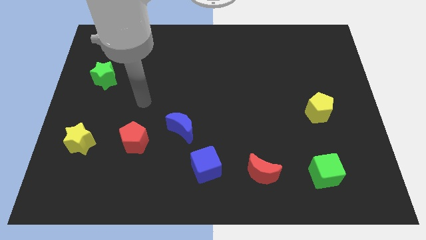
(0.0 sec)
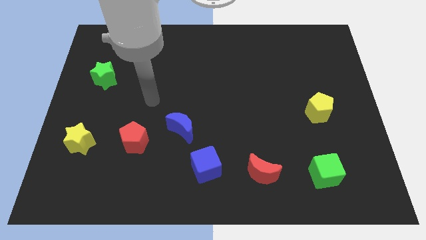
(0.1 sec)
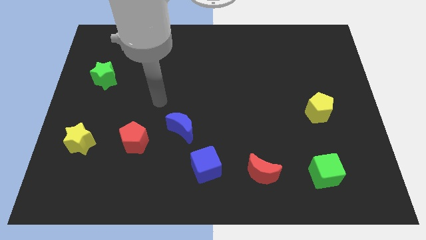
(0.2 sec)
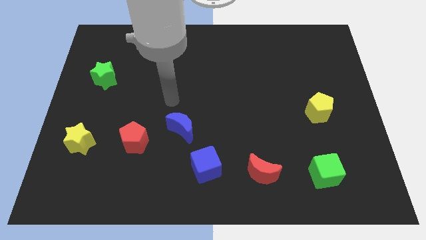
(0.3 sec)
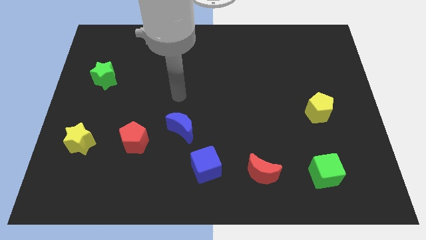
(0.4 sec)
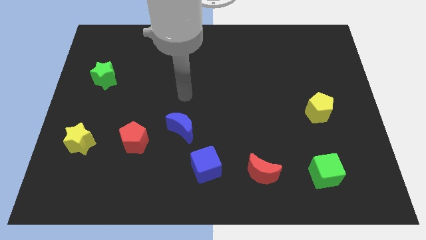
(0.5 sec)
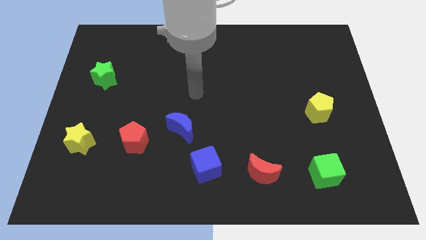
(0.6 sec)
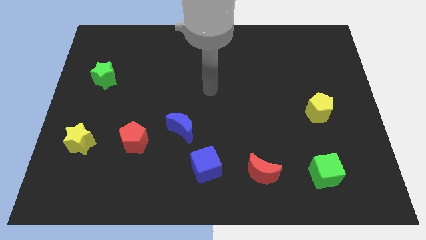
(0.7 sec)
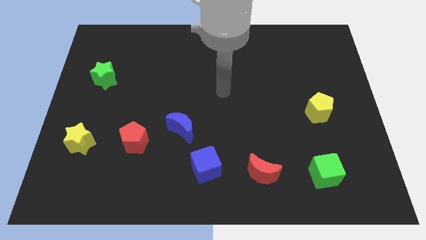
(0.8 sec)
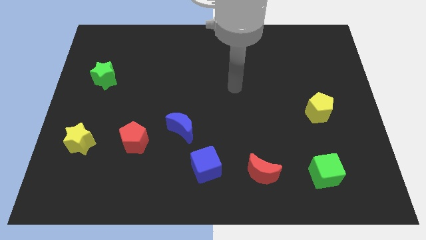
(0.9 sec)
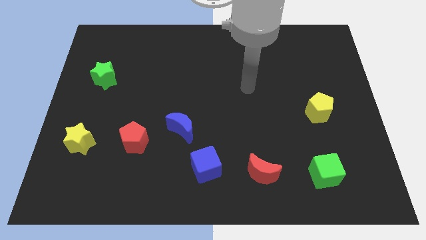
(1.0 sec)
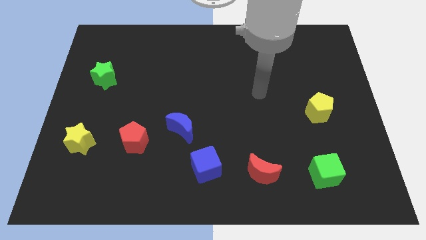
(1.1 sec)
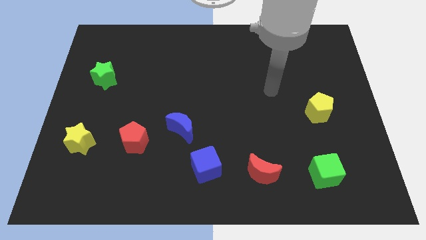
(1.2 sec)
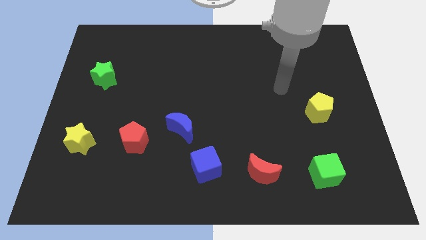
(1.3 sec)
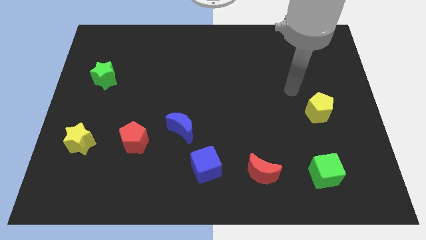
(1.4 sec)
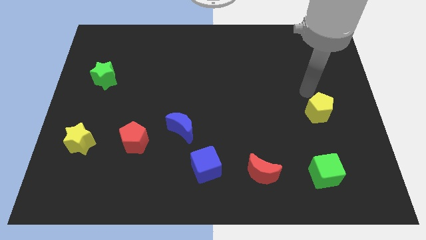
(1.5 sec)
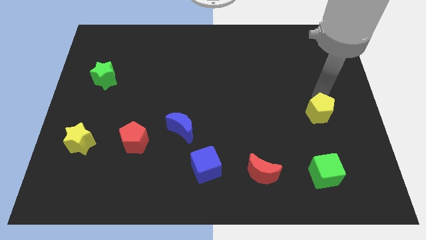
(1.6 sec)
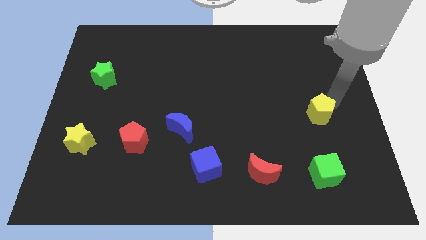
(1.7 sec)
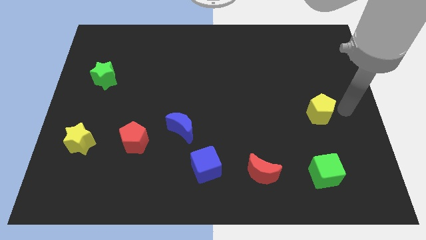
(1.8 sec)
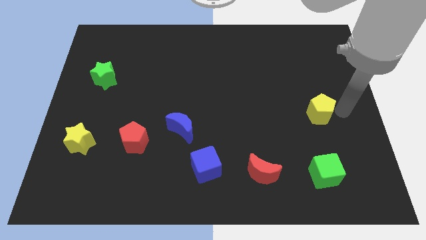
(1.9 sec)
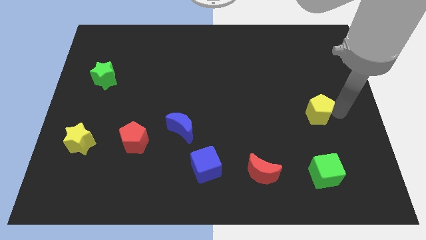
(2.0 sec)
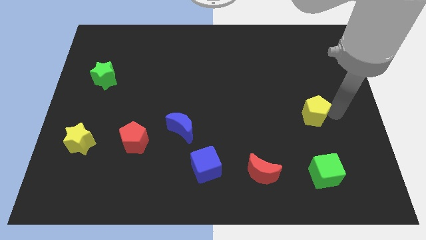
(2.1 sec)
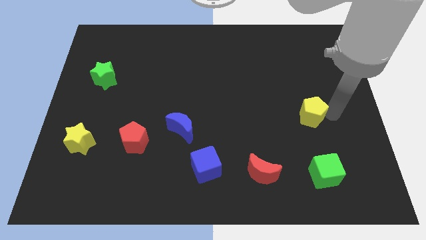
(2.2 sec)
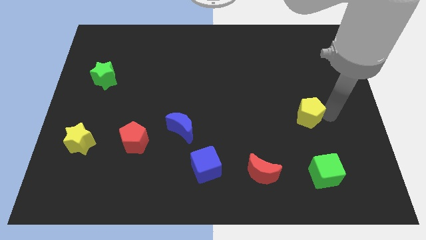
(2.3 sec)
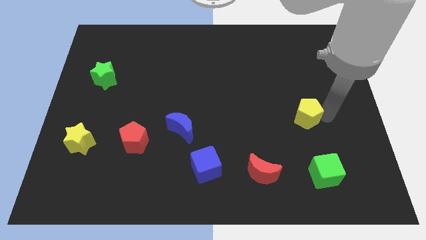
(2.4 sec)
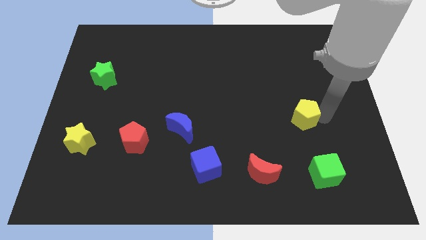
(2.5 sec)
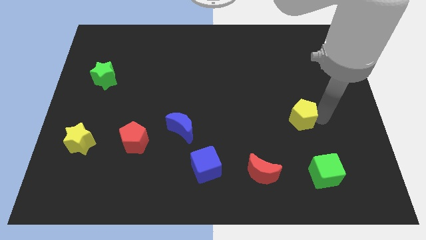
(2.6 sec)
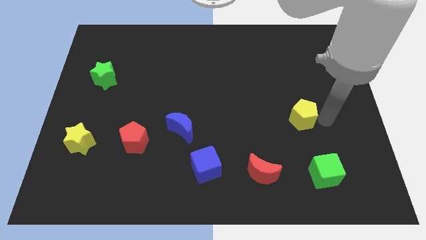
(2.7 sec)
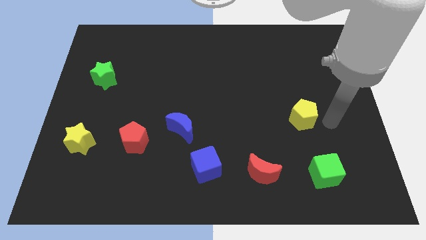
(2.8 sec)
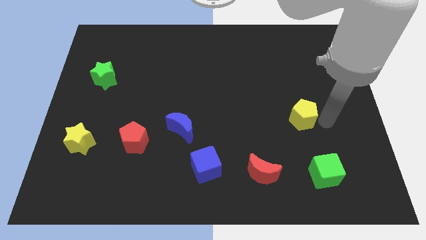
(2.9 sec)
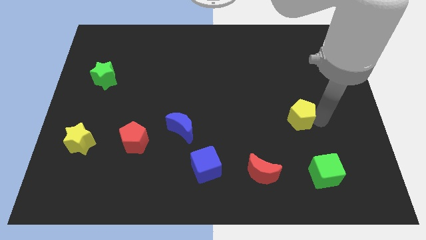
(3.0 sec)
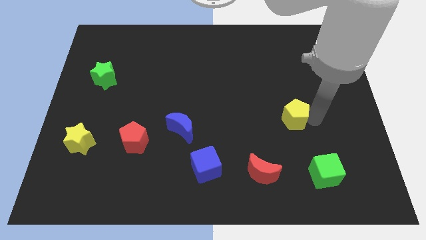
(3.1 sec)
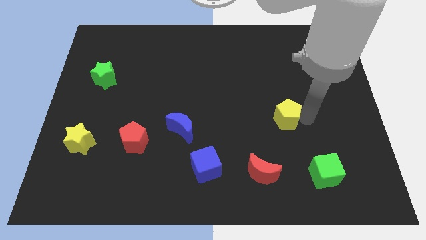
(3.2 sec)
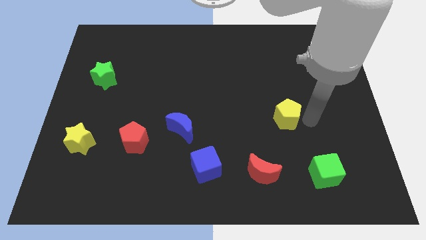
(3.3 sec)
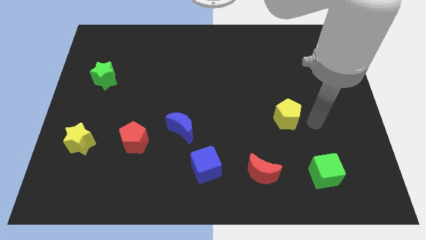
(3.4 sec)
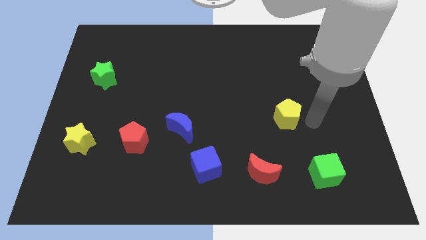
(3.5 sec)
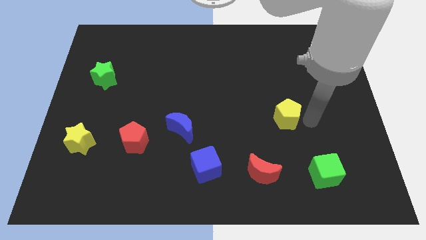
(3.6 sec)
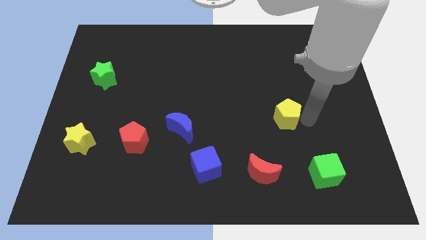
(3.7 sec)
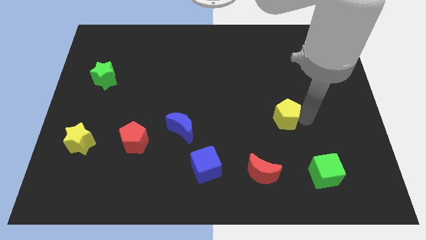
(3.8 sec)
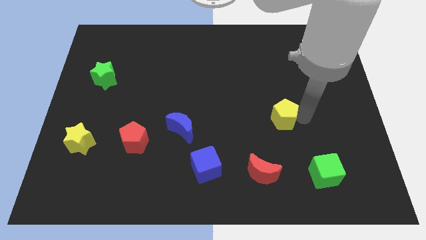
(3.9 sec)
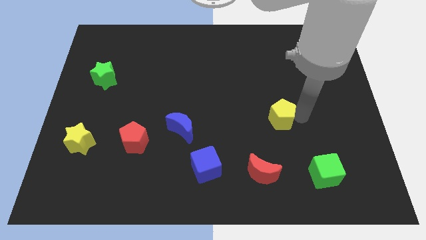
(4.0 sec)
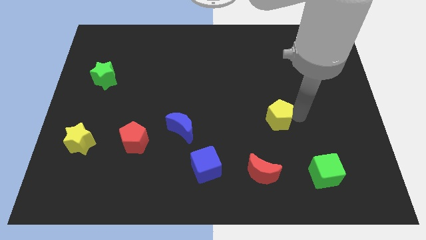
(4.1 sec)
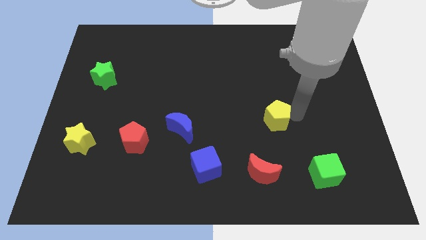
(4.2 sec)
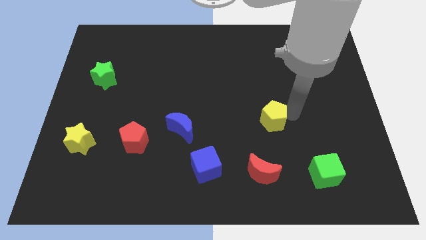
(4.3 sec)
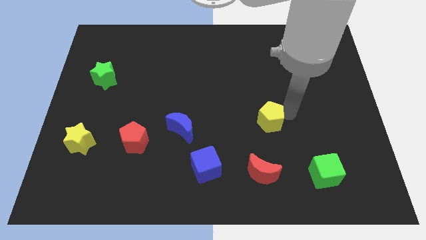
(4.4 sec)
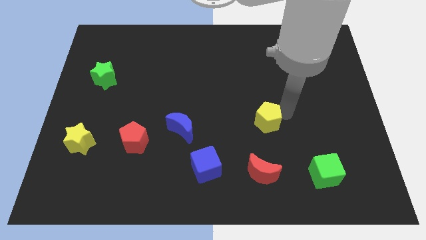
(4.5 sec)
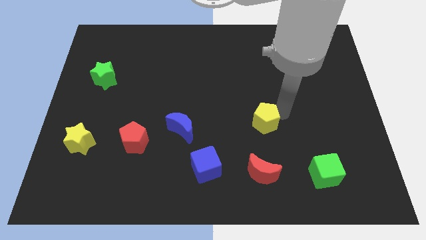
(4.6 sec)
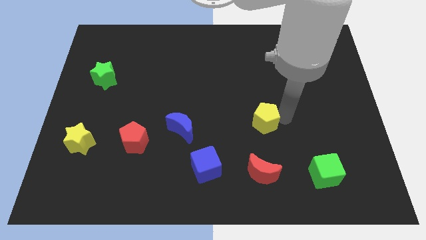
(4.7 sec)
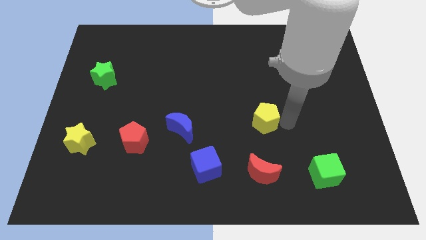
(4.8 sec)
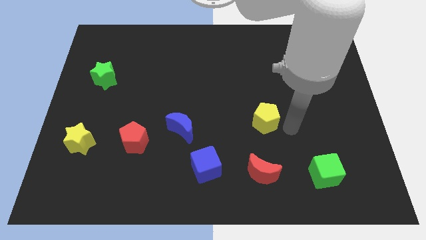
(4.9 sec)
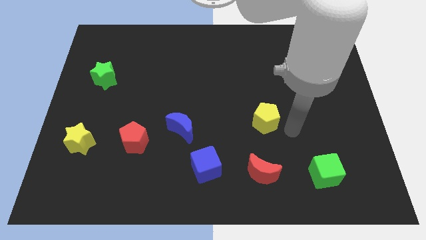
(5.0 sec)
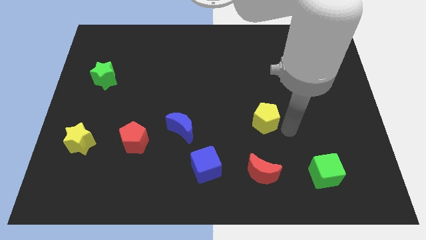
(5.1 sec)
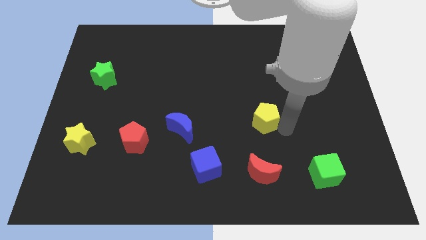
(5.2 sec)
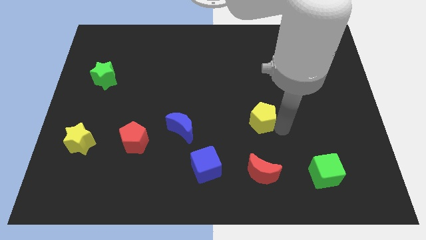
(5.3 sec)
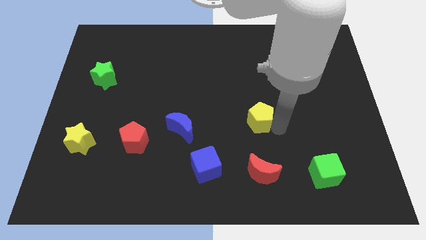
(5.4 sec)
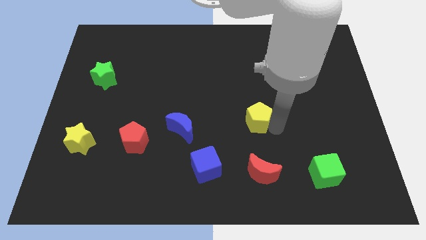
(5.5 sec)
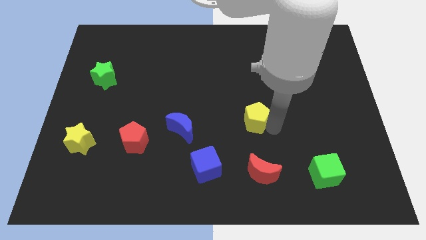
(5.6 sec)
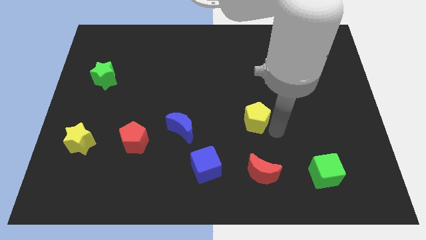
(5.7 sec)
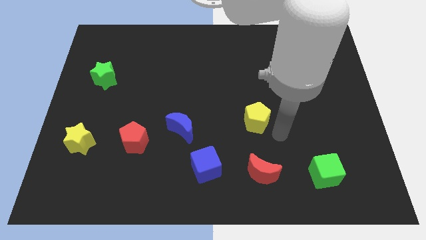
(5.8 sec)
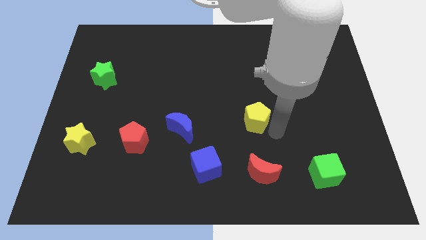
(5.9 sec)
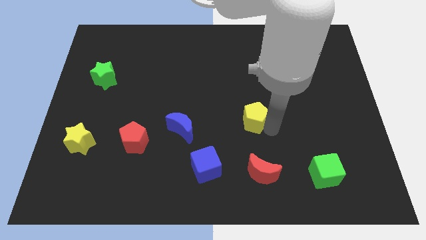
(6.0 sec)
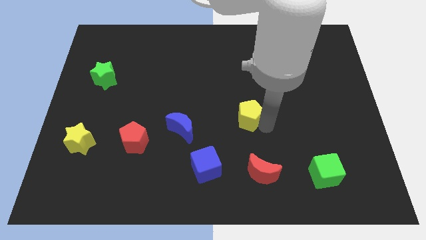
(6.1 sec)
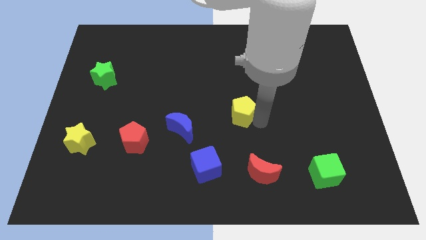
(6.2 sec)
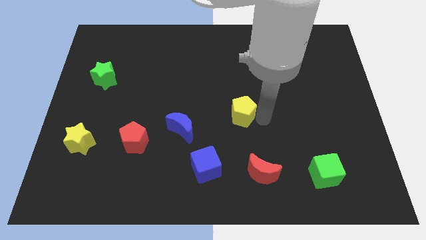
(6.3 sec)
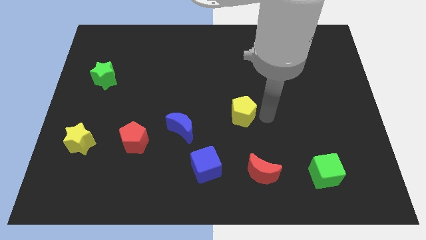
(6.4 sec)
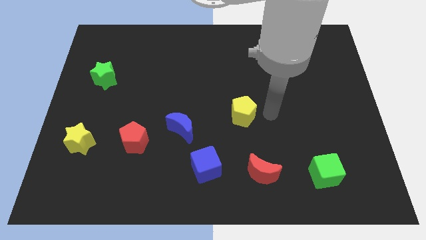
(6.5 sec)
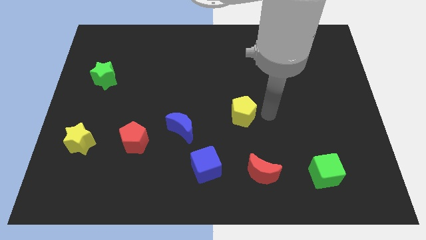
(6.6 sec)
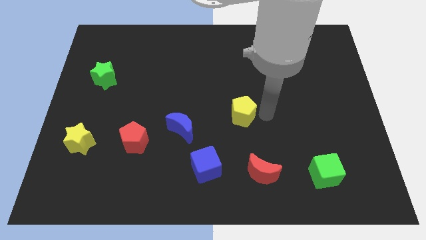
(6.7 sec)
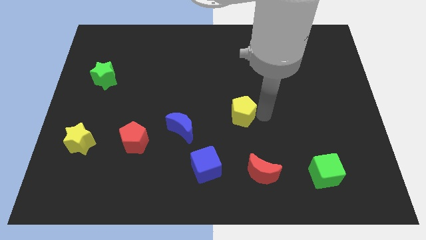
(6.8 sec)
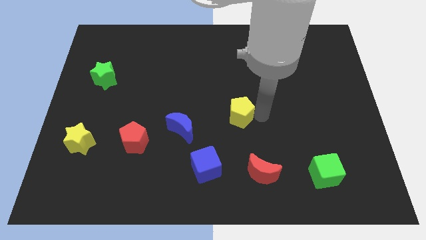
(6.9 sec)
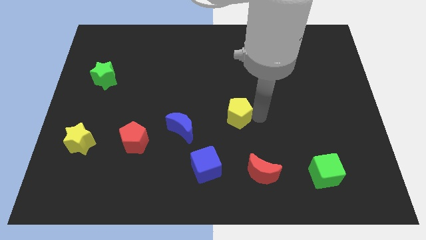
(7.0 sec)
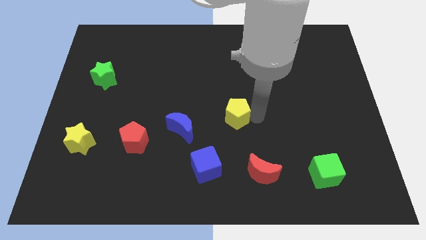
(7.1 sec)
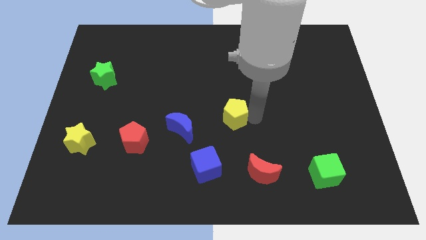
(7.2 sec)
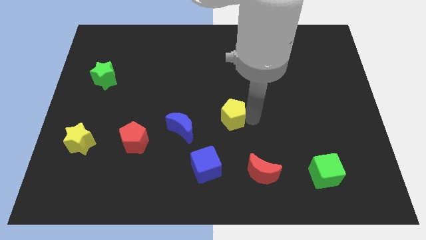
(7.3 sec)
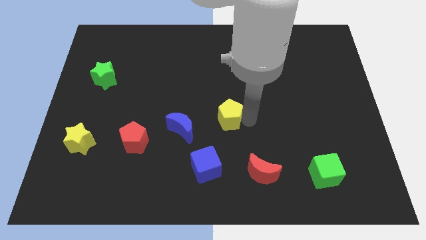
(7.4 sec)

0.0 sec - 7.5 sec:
slide the yellow pentagon left

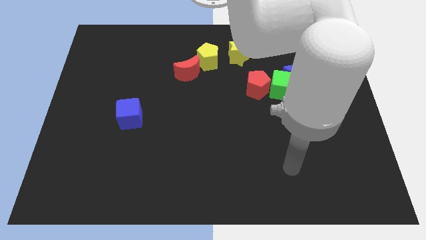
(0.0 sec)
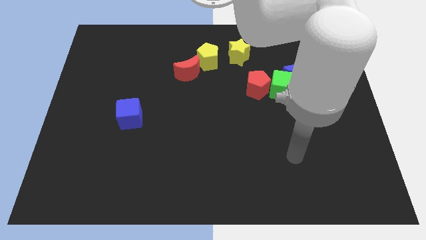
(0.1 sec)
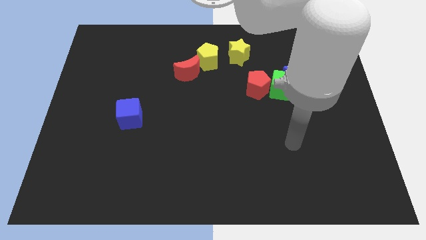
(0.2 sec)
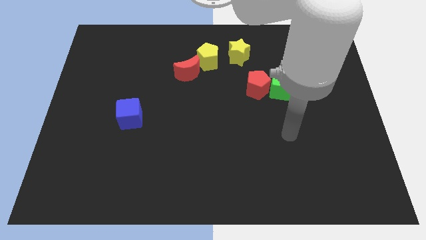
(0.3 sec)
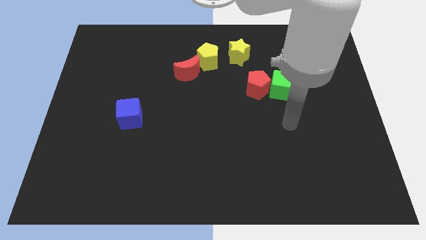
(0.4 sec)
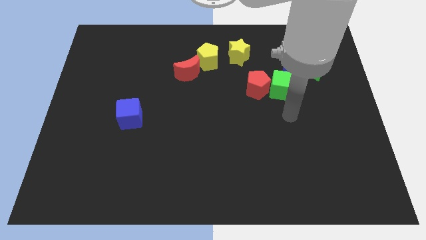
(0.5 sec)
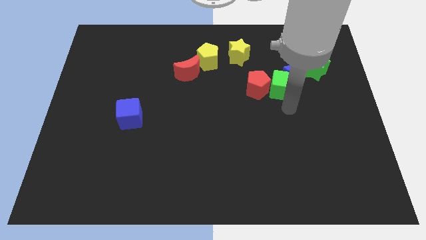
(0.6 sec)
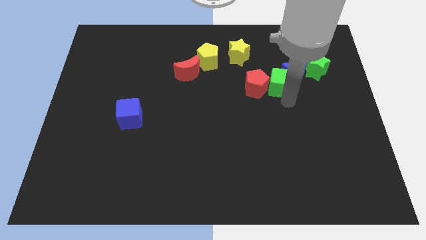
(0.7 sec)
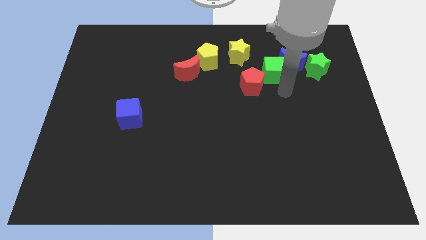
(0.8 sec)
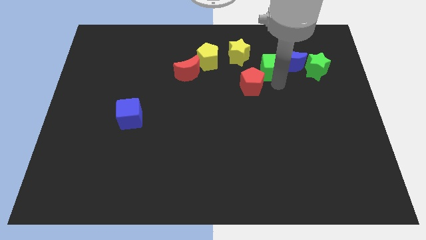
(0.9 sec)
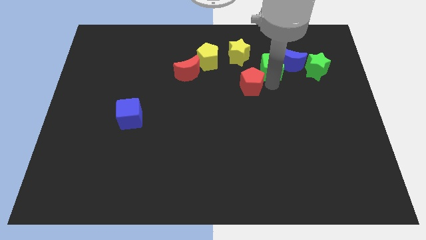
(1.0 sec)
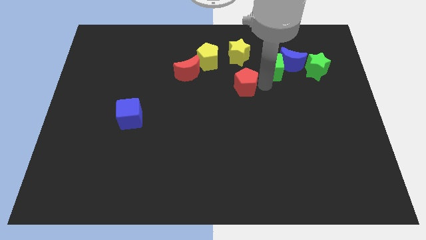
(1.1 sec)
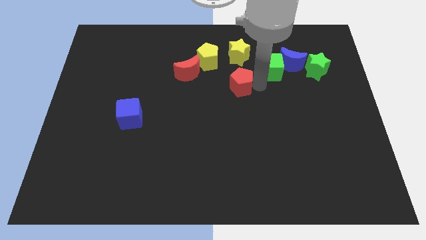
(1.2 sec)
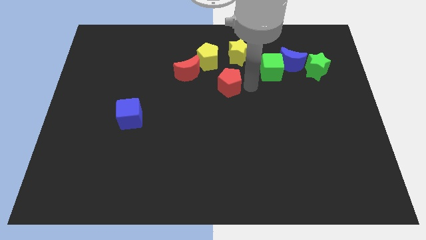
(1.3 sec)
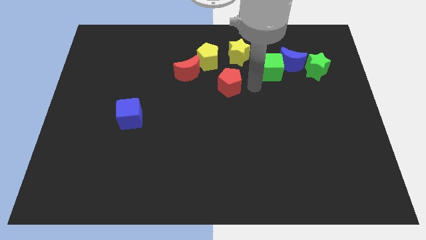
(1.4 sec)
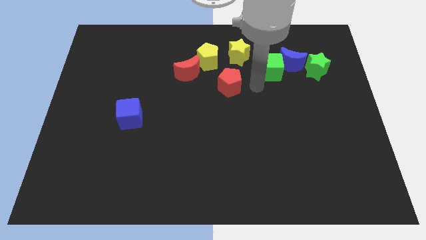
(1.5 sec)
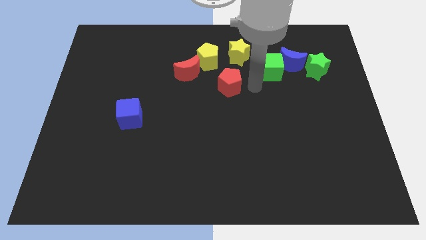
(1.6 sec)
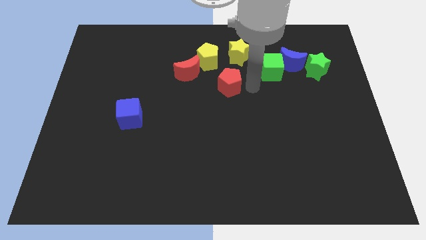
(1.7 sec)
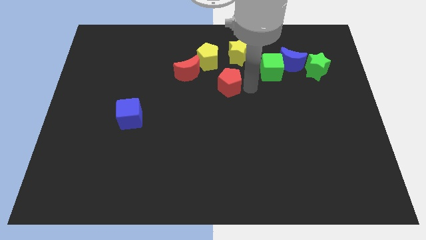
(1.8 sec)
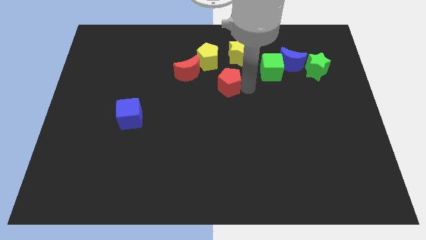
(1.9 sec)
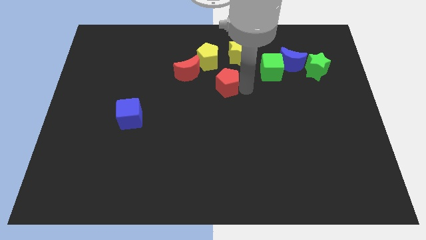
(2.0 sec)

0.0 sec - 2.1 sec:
slide the red pentagon left a little
